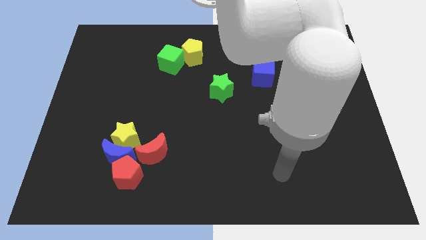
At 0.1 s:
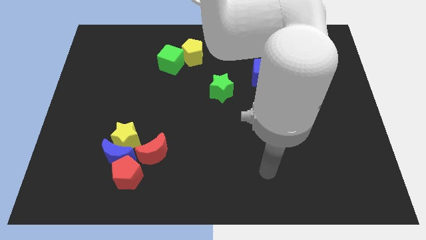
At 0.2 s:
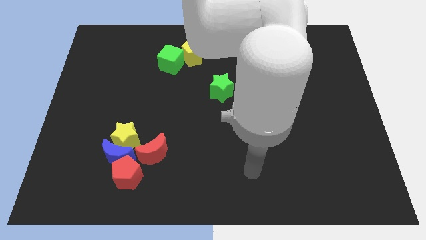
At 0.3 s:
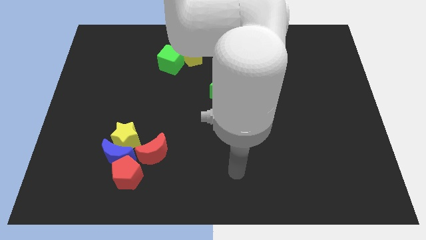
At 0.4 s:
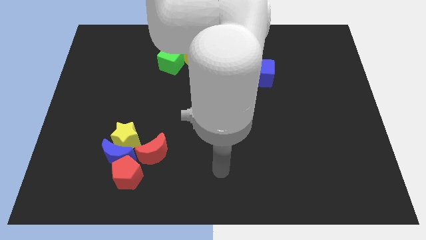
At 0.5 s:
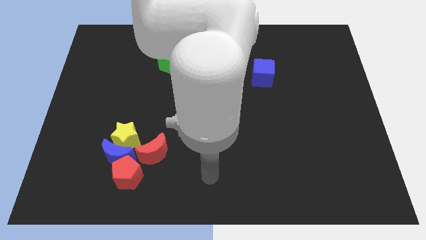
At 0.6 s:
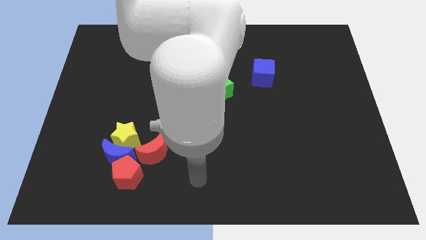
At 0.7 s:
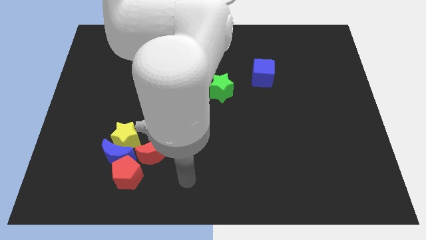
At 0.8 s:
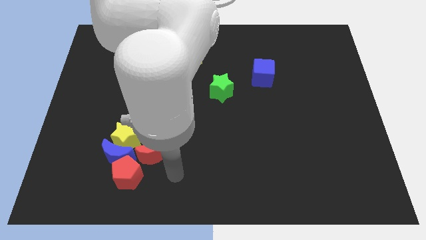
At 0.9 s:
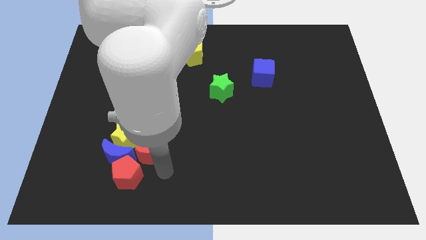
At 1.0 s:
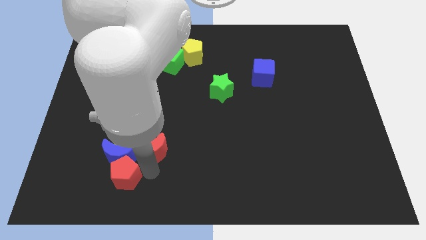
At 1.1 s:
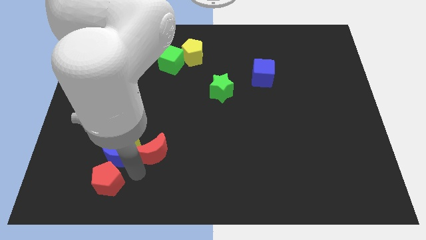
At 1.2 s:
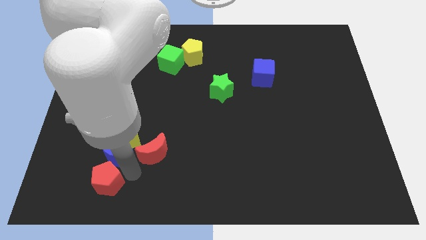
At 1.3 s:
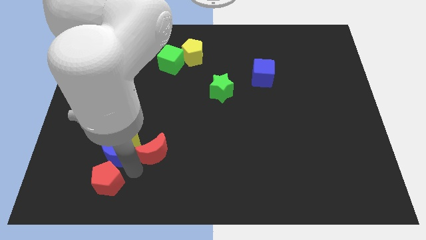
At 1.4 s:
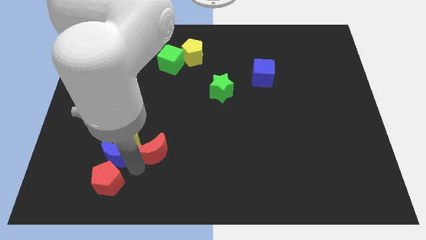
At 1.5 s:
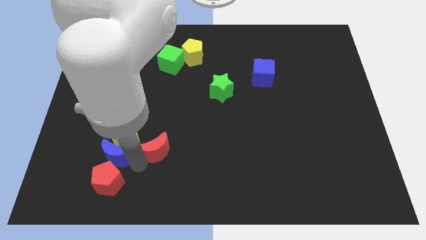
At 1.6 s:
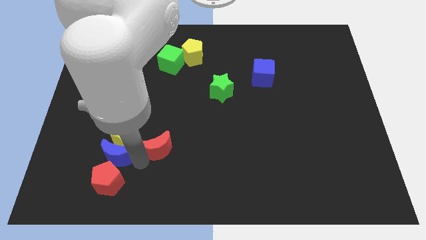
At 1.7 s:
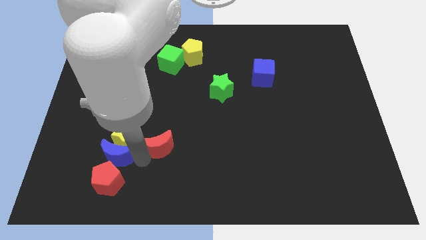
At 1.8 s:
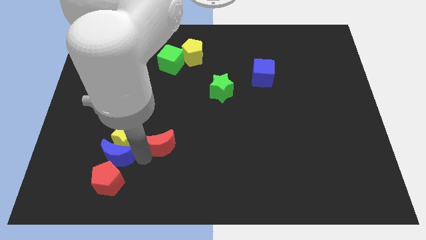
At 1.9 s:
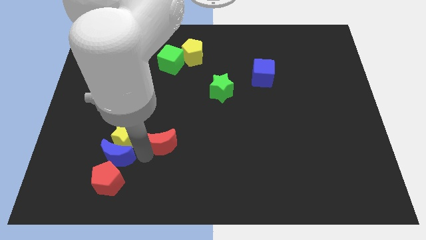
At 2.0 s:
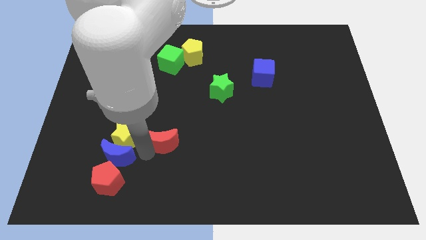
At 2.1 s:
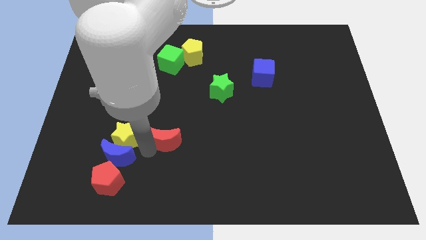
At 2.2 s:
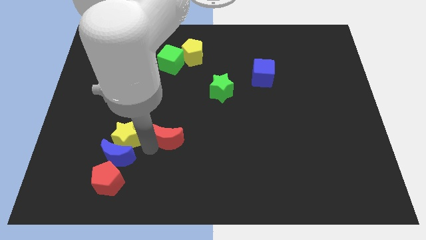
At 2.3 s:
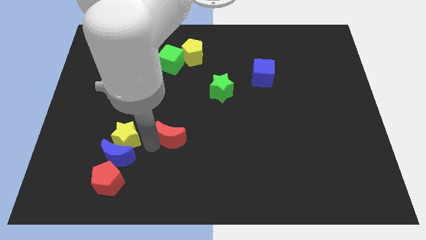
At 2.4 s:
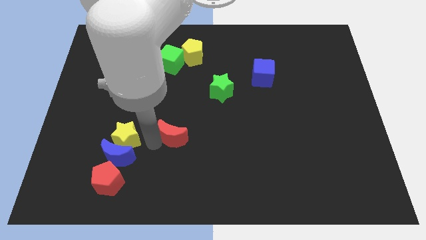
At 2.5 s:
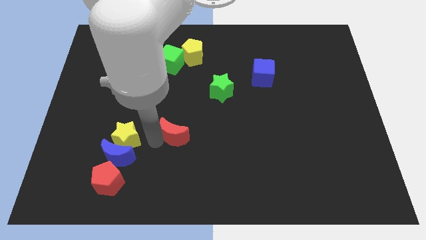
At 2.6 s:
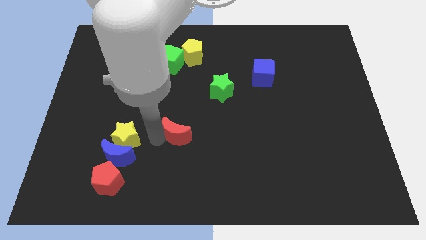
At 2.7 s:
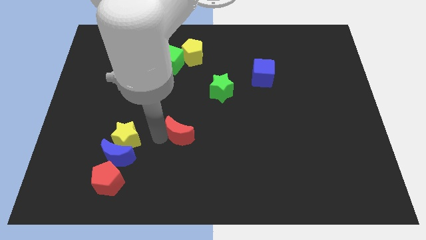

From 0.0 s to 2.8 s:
slightly move the red moon diagonally up and right

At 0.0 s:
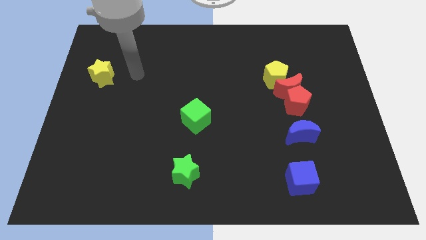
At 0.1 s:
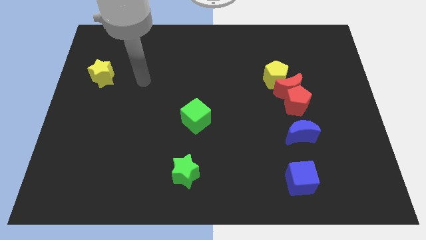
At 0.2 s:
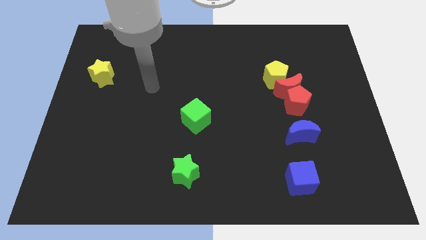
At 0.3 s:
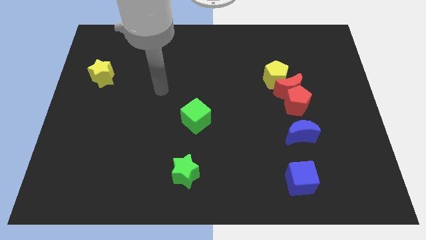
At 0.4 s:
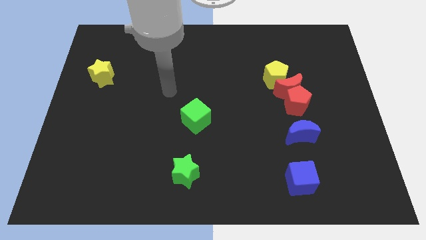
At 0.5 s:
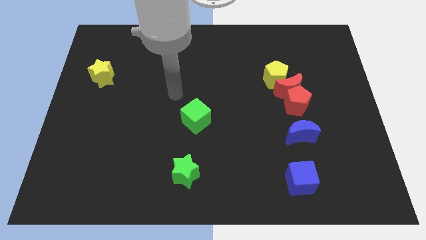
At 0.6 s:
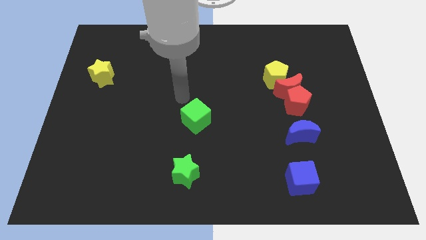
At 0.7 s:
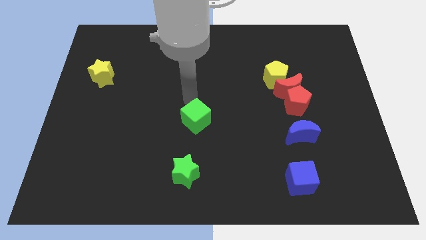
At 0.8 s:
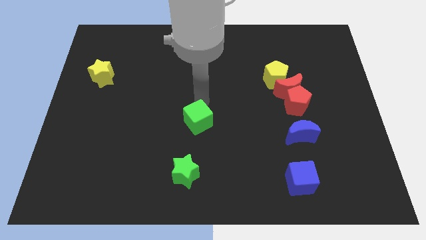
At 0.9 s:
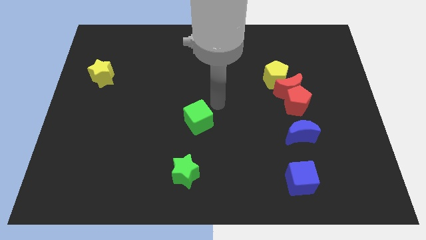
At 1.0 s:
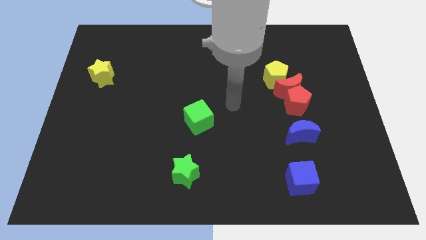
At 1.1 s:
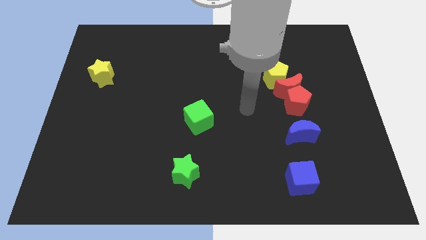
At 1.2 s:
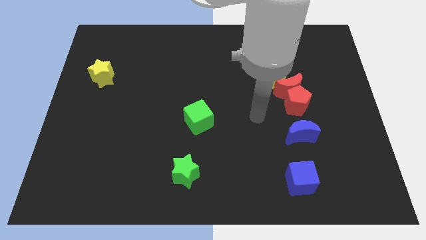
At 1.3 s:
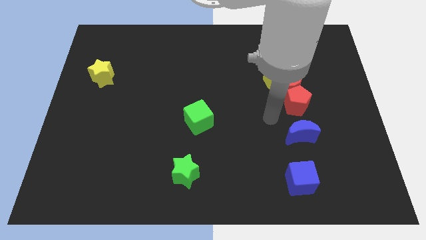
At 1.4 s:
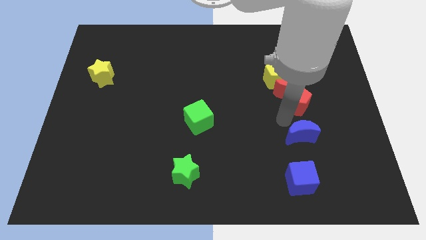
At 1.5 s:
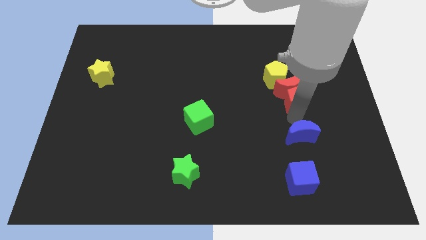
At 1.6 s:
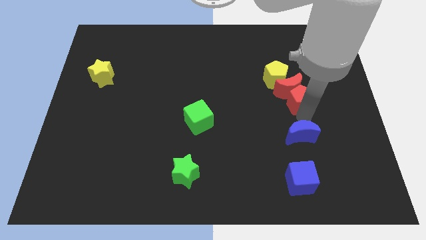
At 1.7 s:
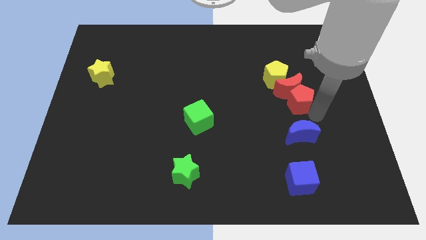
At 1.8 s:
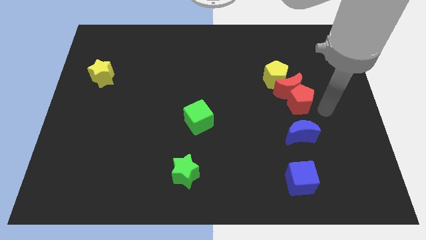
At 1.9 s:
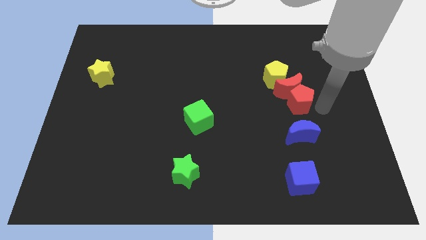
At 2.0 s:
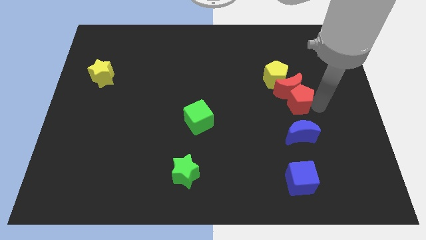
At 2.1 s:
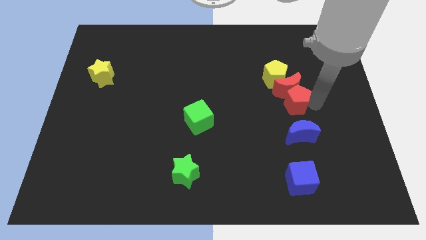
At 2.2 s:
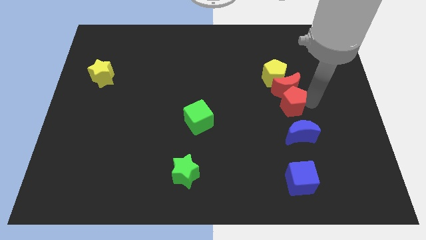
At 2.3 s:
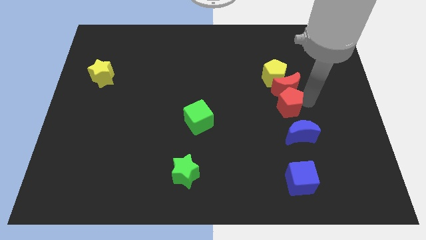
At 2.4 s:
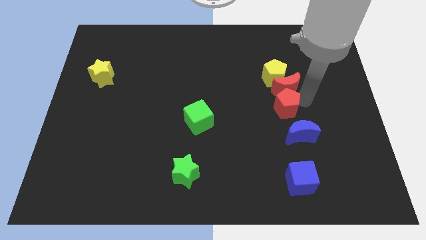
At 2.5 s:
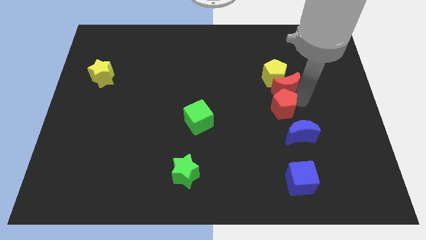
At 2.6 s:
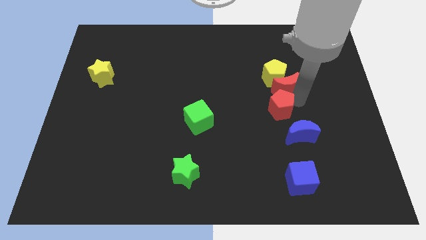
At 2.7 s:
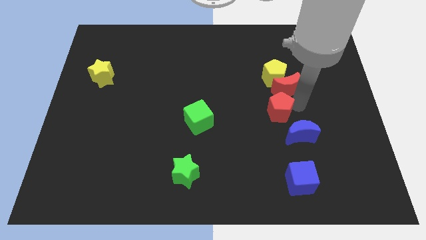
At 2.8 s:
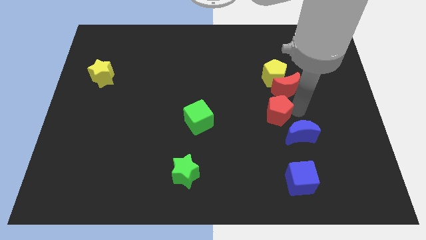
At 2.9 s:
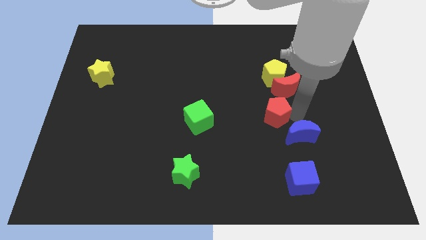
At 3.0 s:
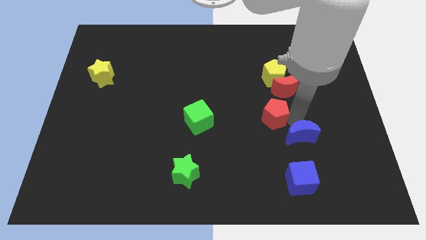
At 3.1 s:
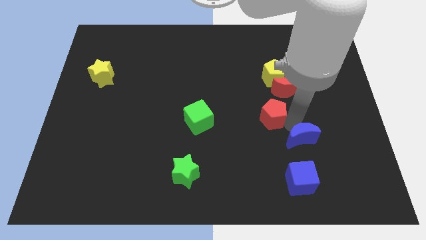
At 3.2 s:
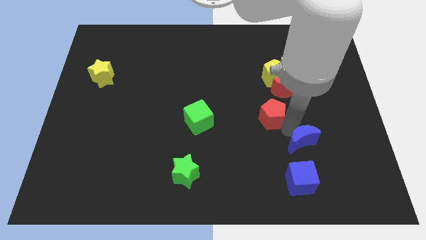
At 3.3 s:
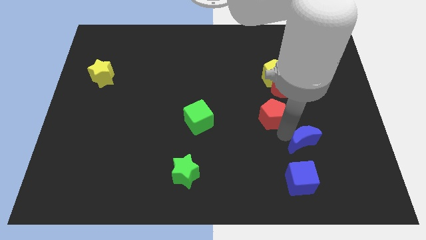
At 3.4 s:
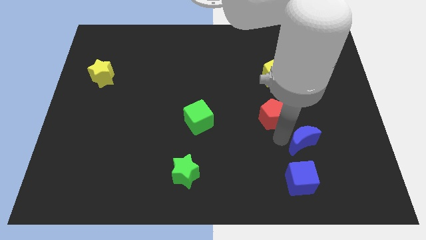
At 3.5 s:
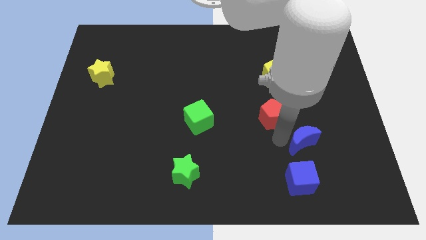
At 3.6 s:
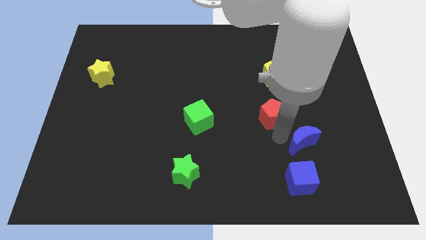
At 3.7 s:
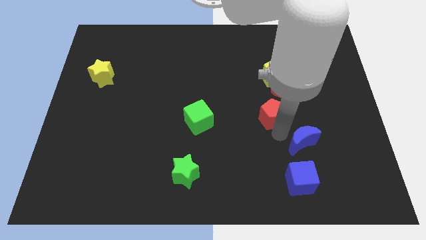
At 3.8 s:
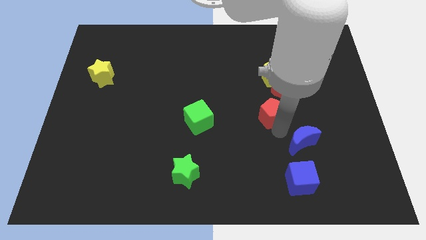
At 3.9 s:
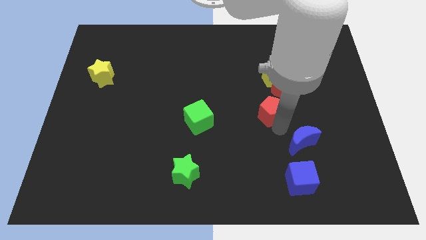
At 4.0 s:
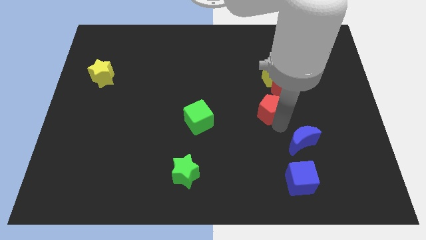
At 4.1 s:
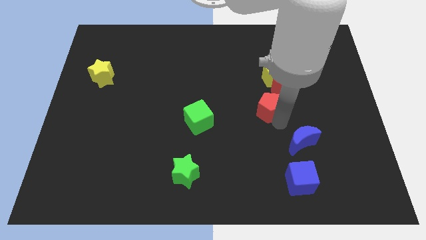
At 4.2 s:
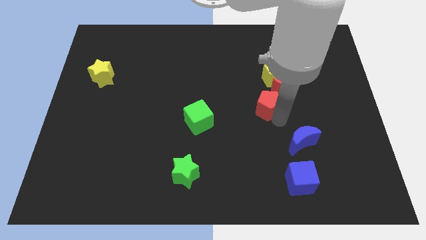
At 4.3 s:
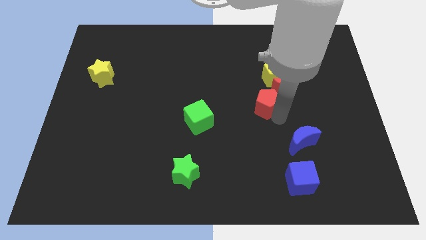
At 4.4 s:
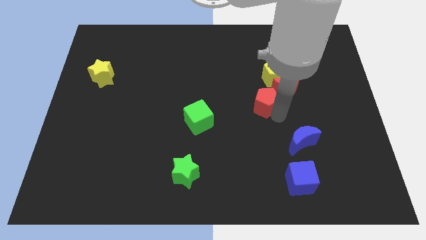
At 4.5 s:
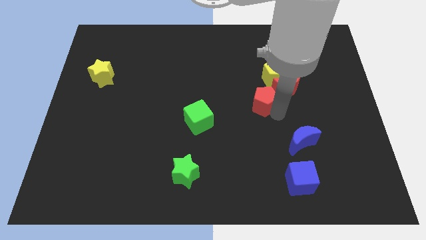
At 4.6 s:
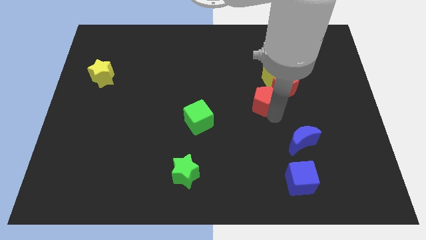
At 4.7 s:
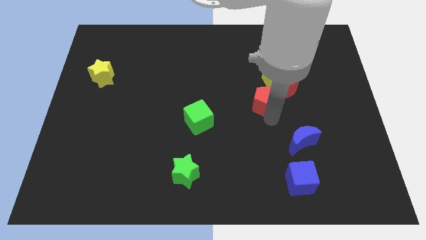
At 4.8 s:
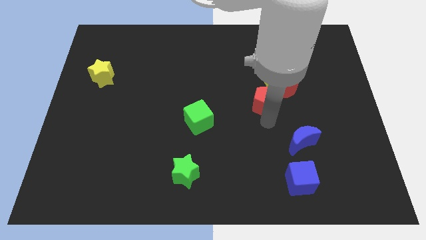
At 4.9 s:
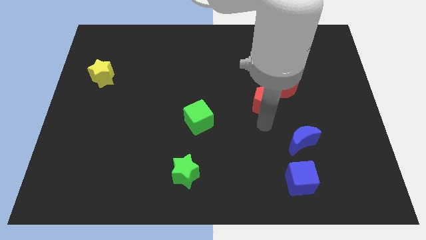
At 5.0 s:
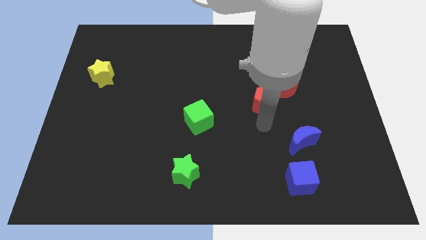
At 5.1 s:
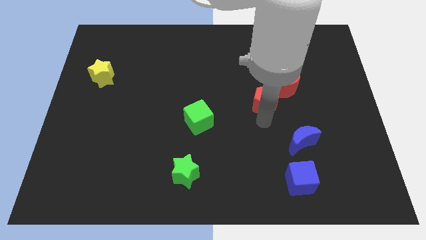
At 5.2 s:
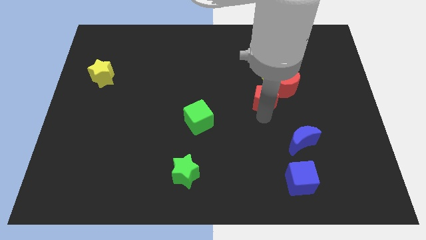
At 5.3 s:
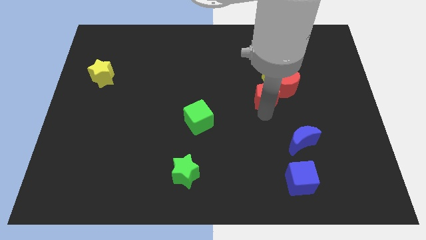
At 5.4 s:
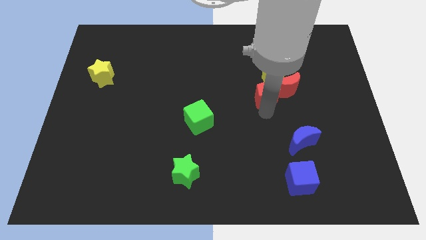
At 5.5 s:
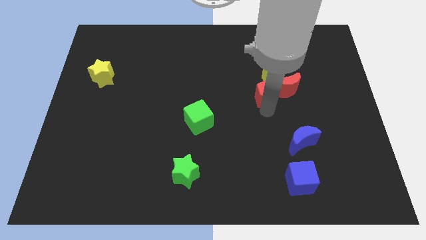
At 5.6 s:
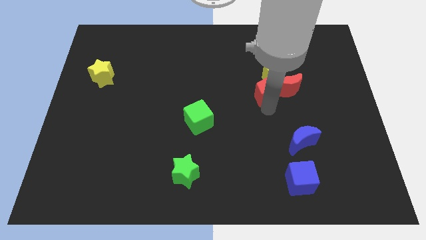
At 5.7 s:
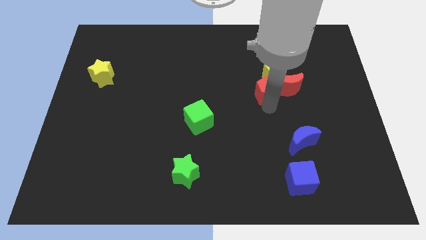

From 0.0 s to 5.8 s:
push the red pentagon a little upwards and left diagonally
